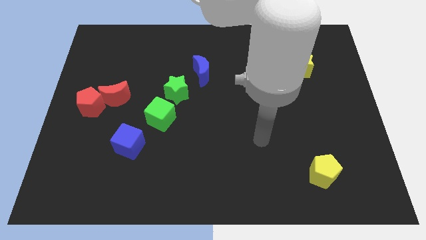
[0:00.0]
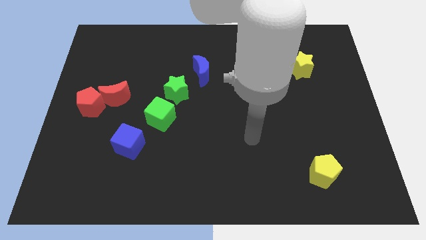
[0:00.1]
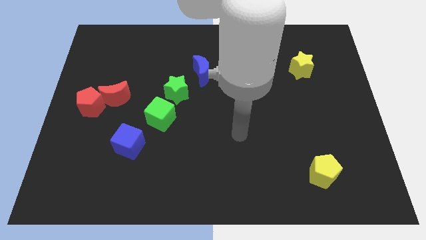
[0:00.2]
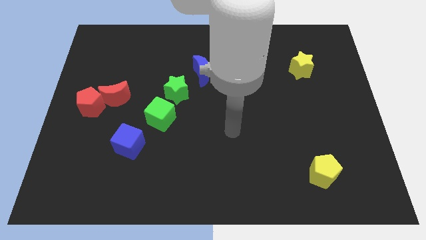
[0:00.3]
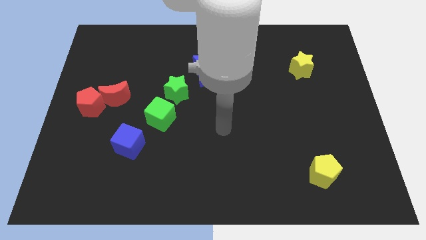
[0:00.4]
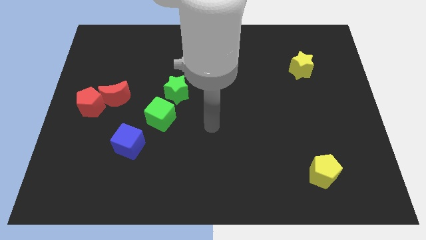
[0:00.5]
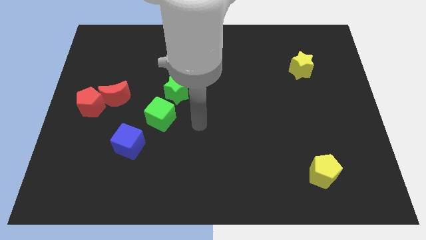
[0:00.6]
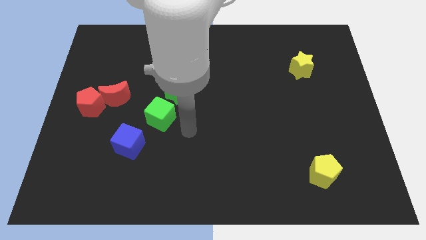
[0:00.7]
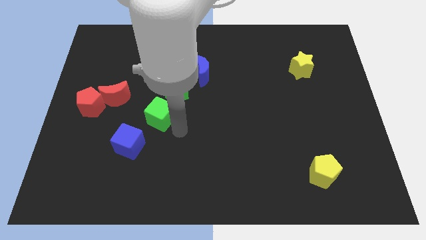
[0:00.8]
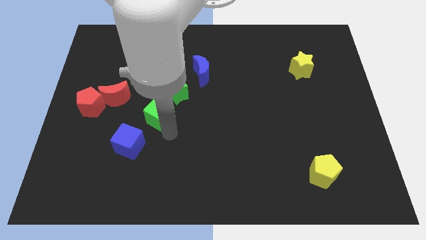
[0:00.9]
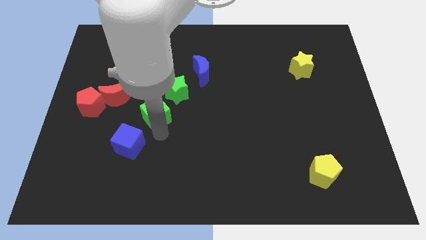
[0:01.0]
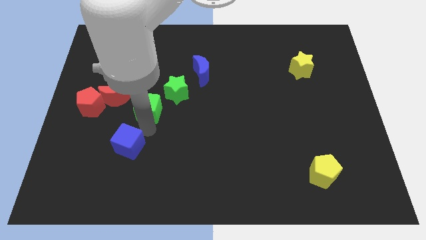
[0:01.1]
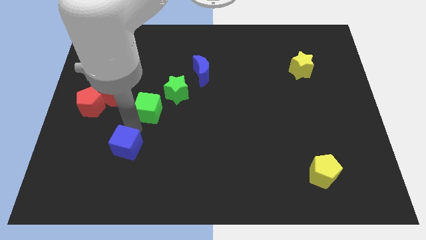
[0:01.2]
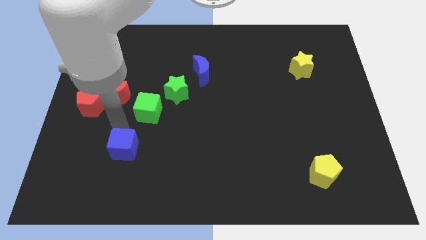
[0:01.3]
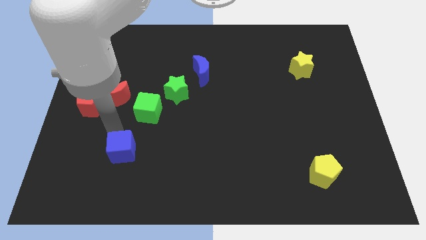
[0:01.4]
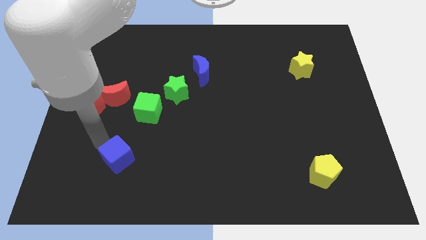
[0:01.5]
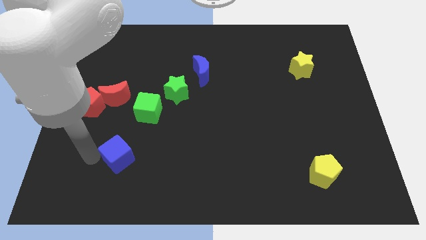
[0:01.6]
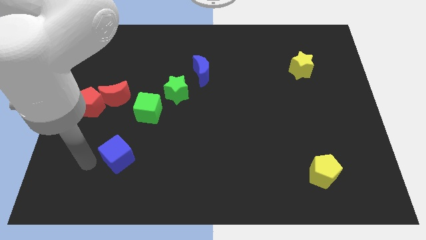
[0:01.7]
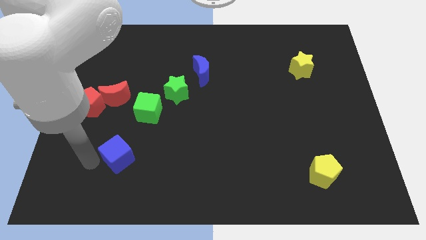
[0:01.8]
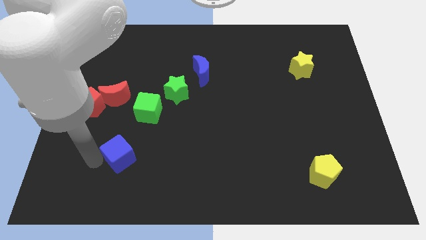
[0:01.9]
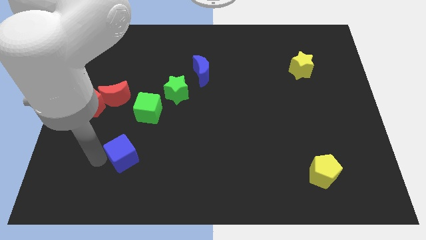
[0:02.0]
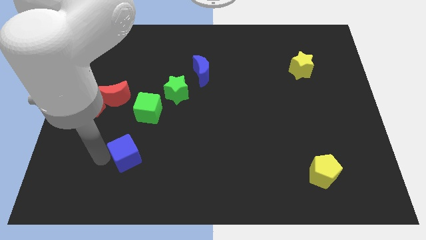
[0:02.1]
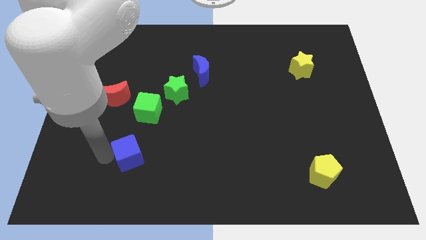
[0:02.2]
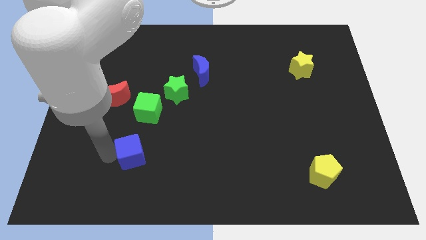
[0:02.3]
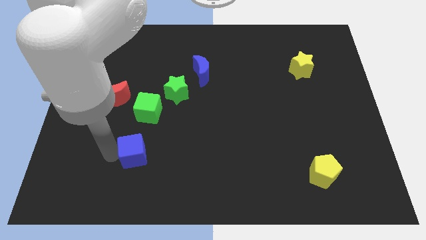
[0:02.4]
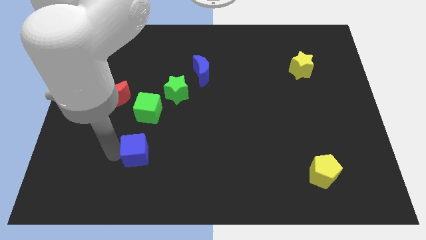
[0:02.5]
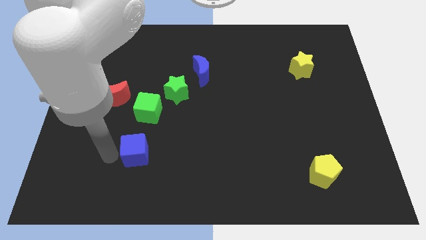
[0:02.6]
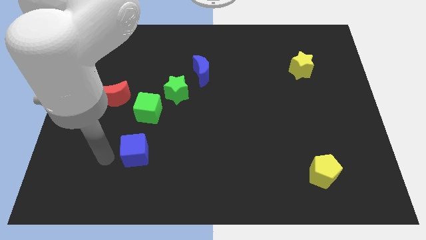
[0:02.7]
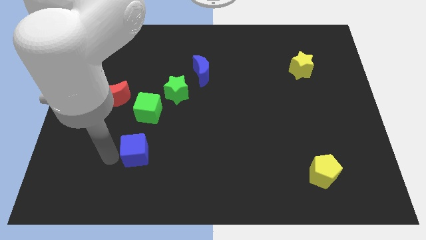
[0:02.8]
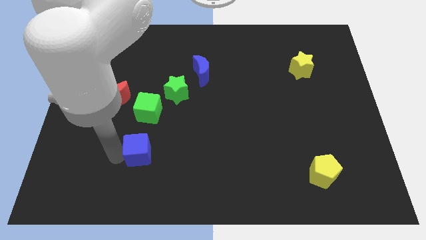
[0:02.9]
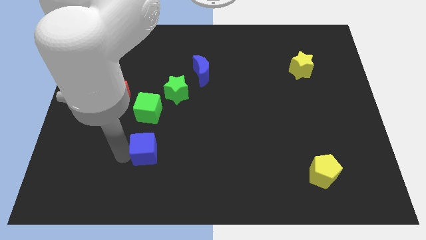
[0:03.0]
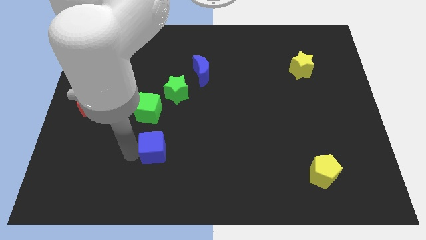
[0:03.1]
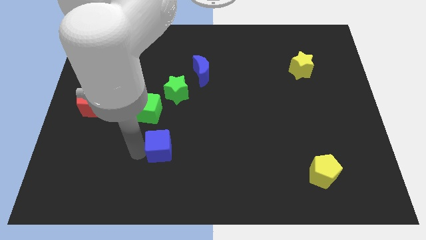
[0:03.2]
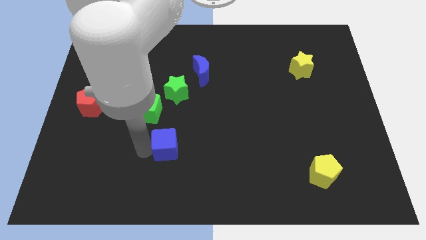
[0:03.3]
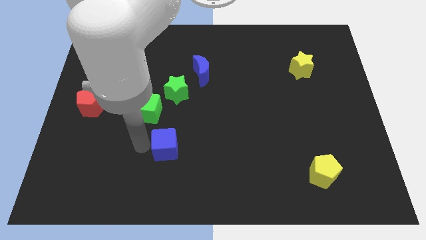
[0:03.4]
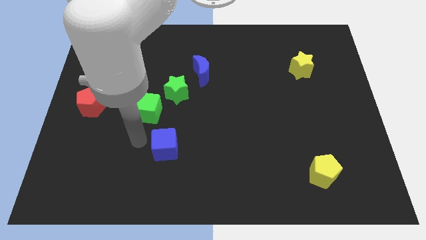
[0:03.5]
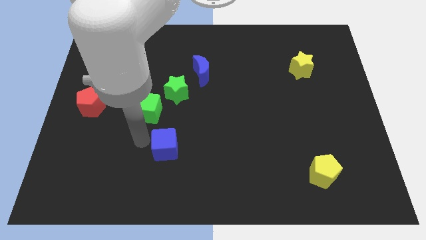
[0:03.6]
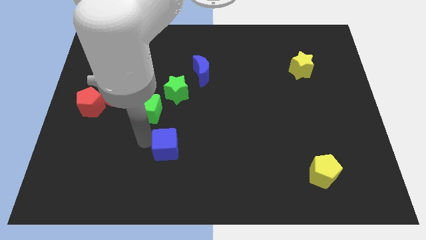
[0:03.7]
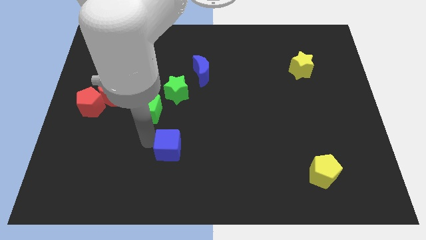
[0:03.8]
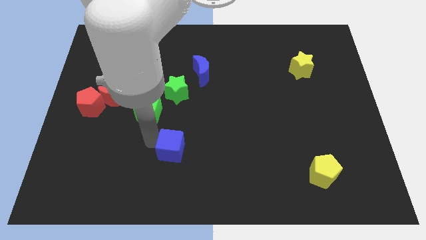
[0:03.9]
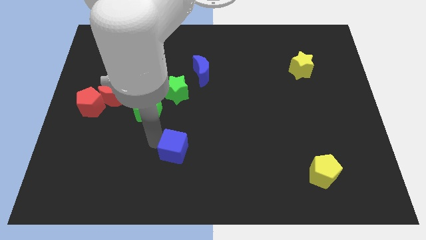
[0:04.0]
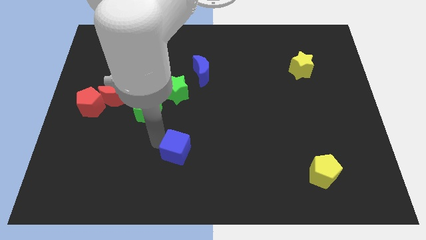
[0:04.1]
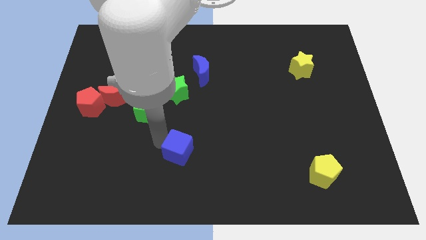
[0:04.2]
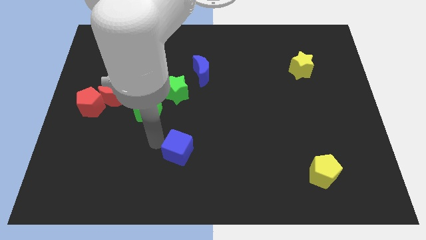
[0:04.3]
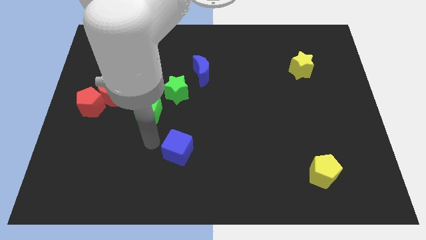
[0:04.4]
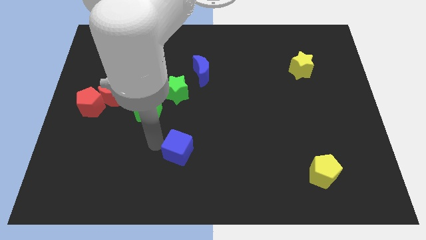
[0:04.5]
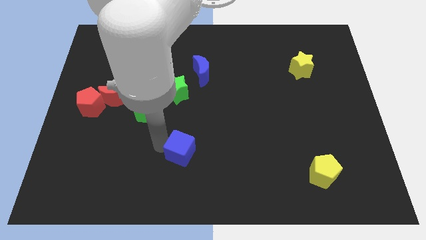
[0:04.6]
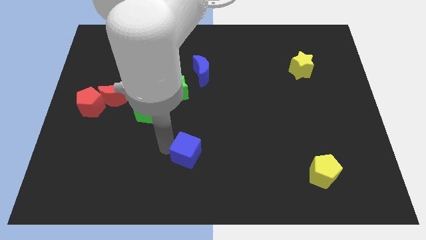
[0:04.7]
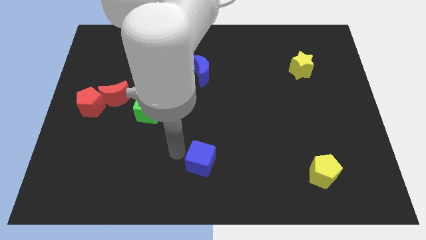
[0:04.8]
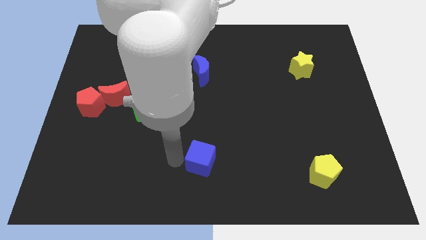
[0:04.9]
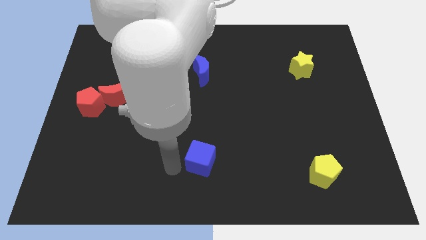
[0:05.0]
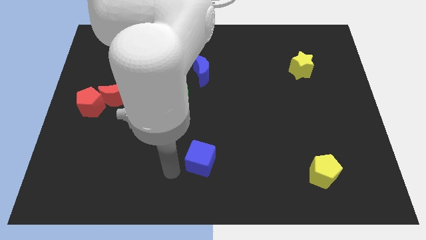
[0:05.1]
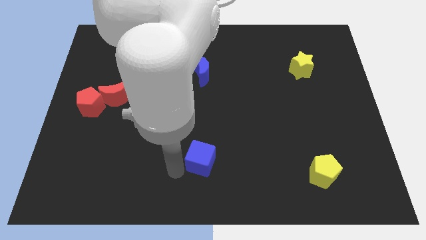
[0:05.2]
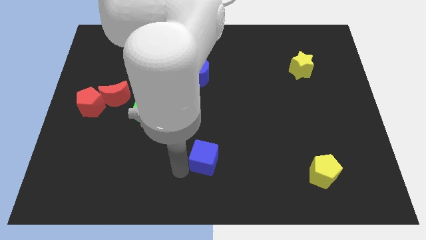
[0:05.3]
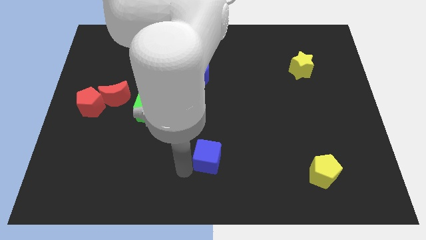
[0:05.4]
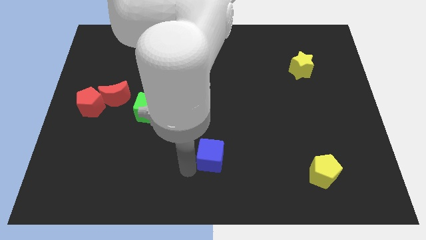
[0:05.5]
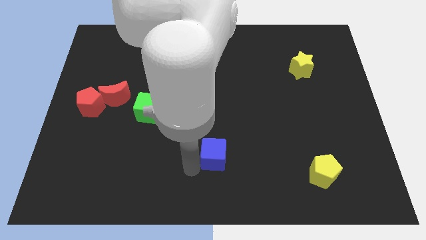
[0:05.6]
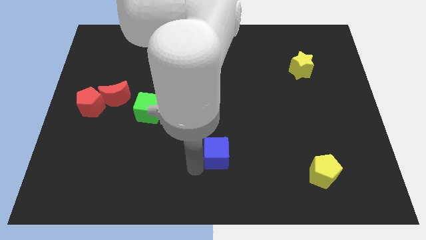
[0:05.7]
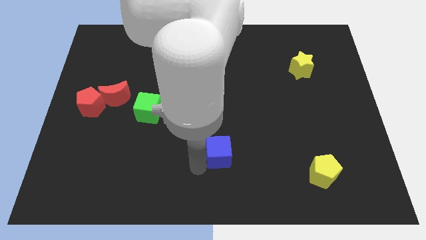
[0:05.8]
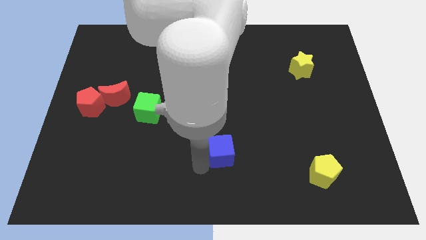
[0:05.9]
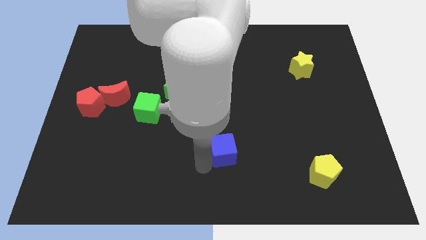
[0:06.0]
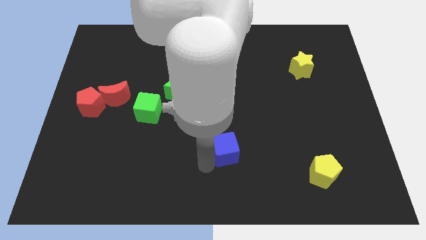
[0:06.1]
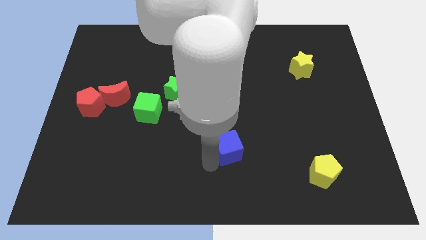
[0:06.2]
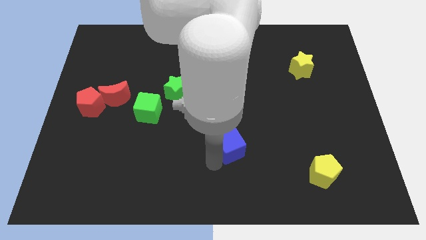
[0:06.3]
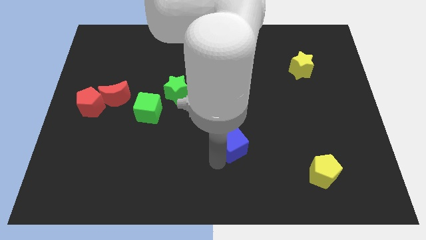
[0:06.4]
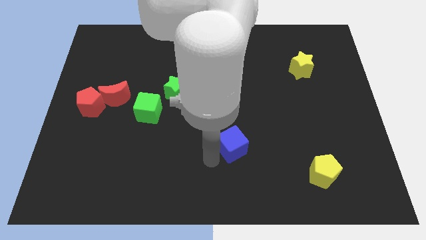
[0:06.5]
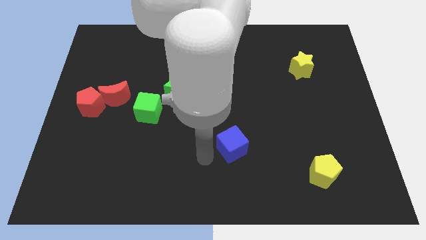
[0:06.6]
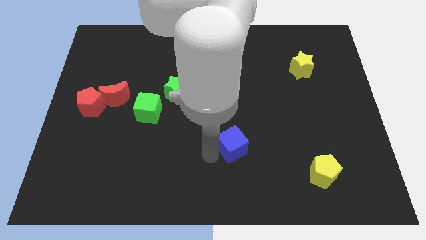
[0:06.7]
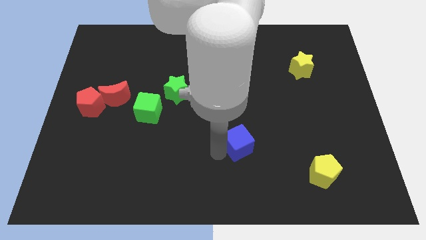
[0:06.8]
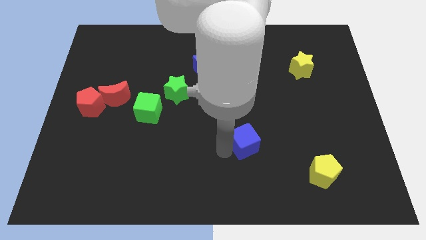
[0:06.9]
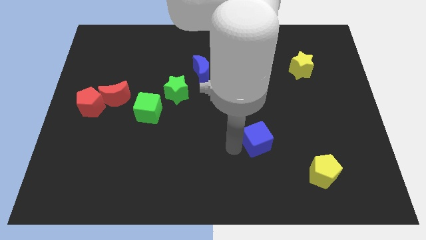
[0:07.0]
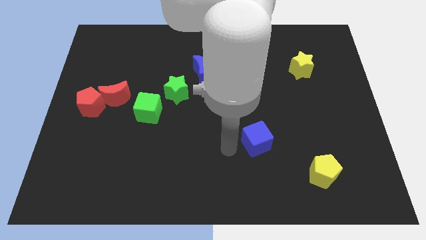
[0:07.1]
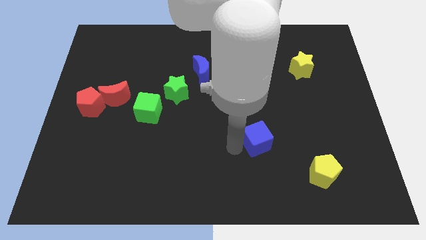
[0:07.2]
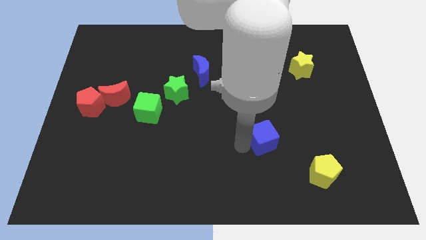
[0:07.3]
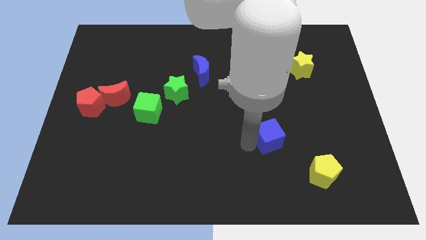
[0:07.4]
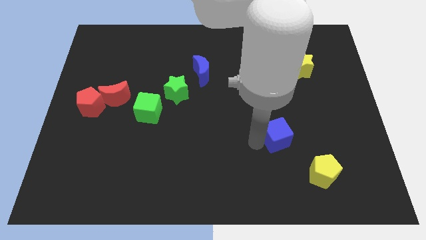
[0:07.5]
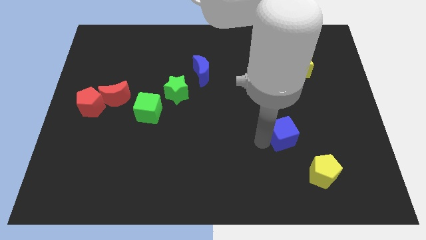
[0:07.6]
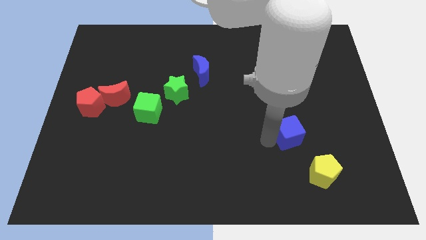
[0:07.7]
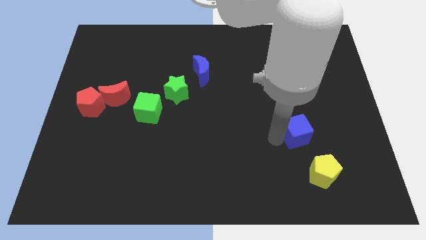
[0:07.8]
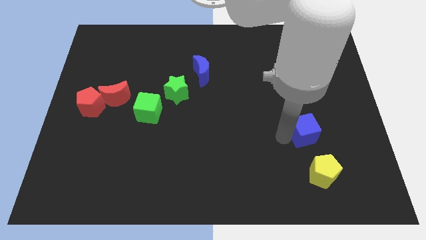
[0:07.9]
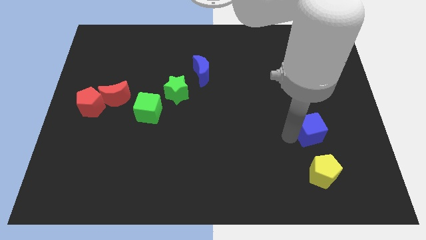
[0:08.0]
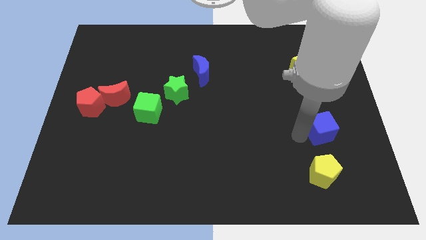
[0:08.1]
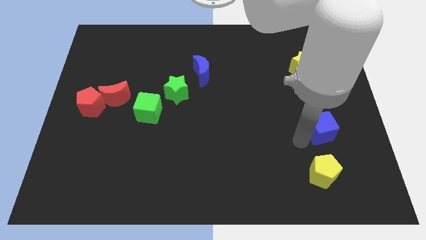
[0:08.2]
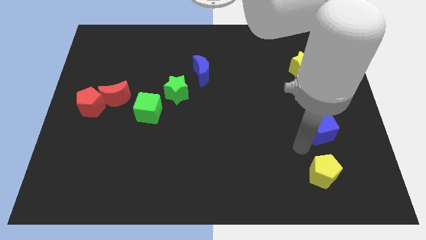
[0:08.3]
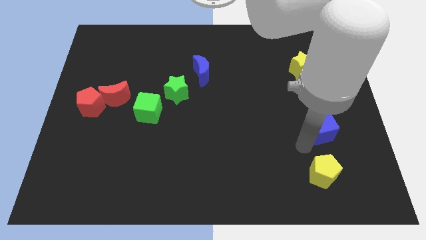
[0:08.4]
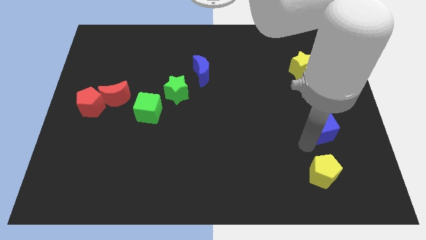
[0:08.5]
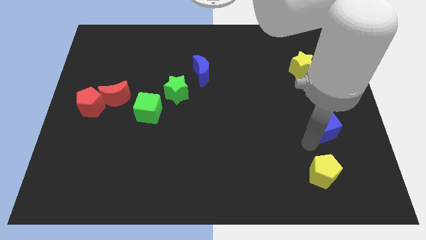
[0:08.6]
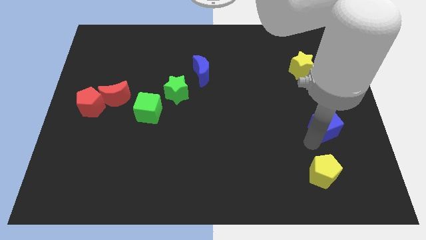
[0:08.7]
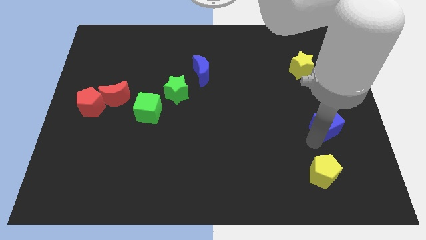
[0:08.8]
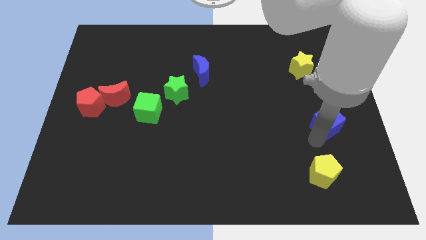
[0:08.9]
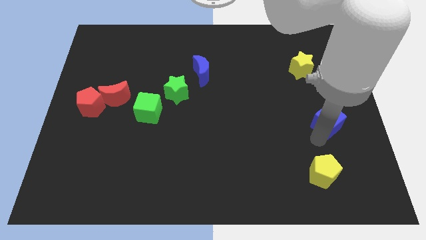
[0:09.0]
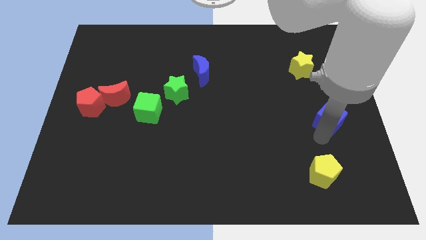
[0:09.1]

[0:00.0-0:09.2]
push the blue cube to the right side
